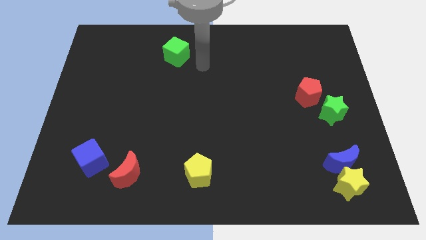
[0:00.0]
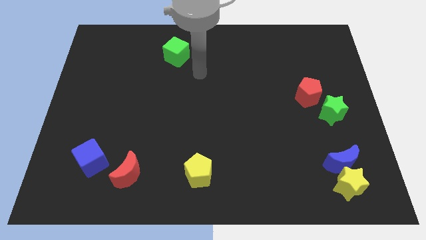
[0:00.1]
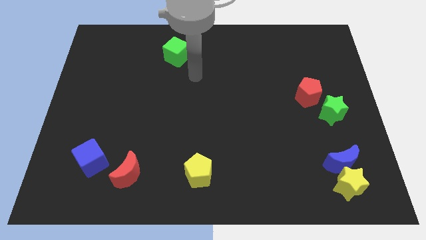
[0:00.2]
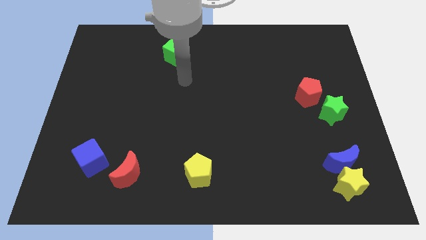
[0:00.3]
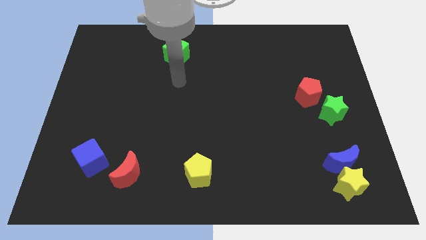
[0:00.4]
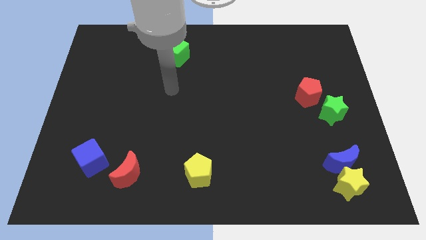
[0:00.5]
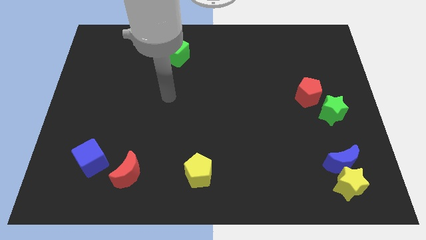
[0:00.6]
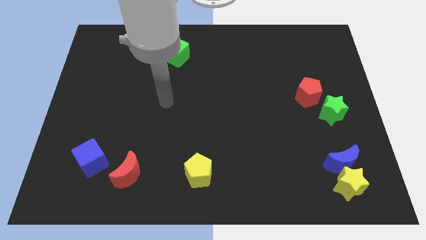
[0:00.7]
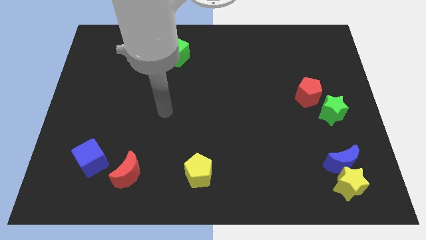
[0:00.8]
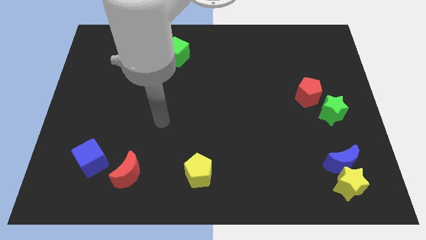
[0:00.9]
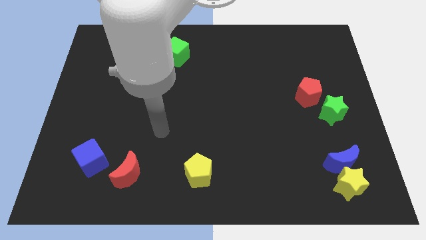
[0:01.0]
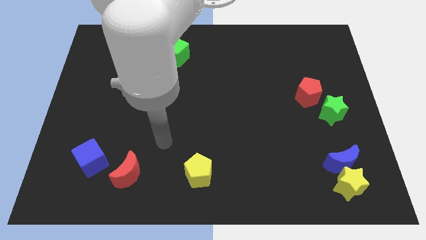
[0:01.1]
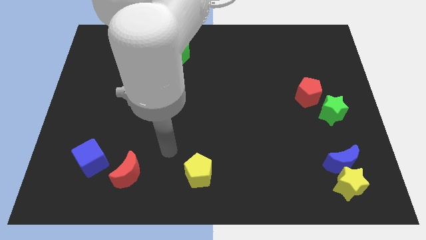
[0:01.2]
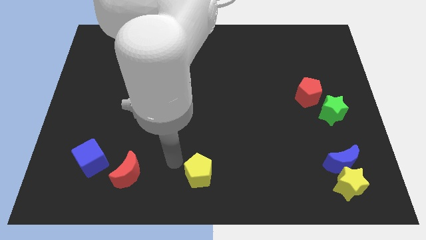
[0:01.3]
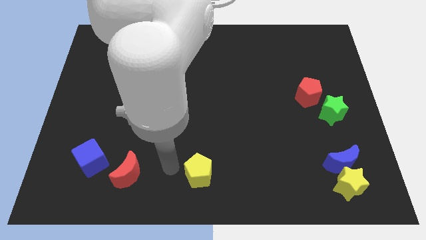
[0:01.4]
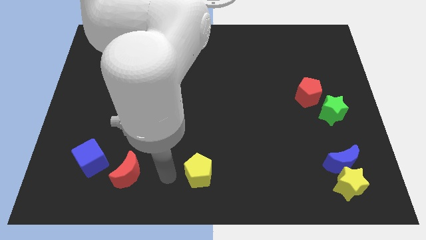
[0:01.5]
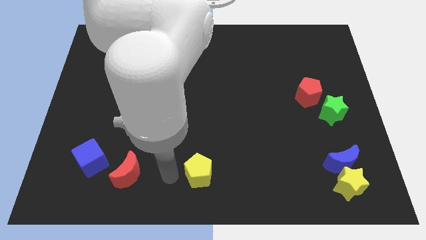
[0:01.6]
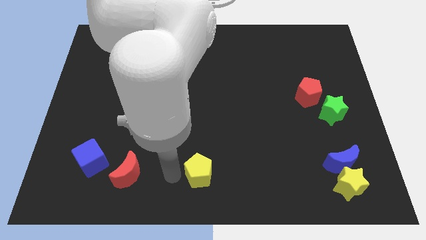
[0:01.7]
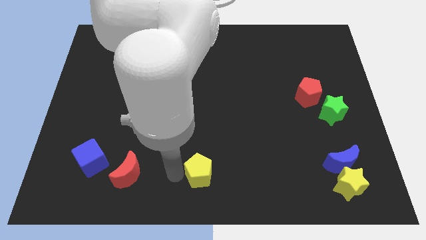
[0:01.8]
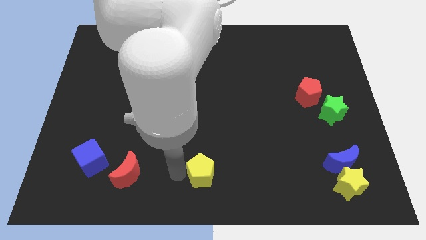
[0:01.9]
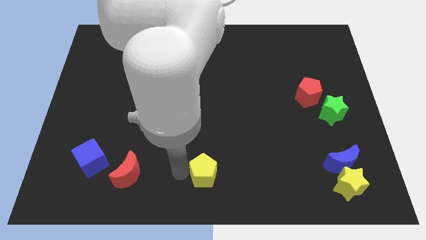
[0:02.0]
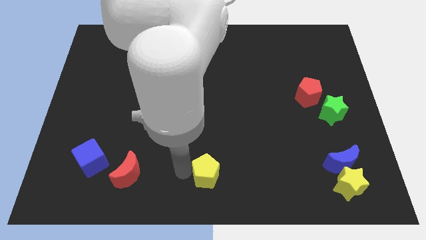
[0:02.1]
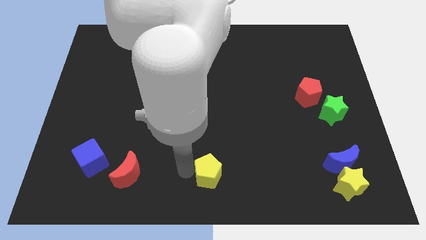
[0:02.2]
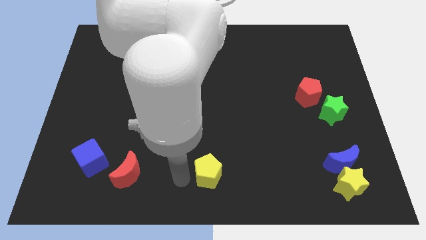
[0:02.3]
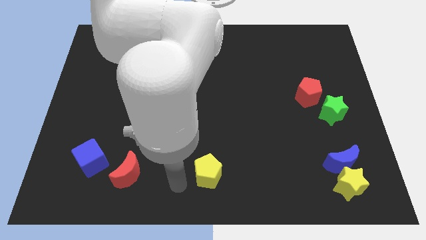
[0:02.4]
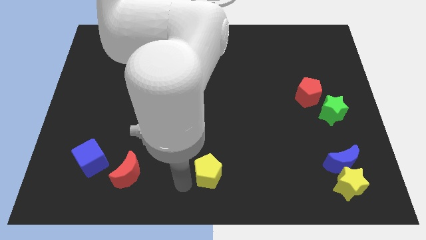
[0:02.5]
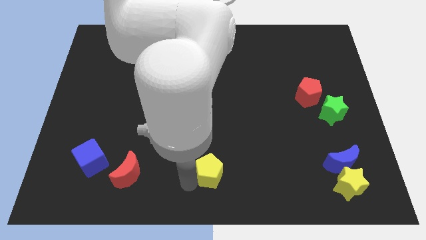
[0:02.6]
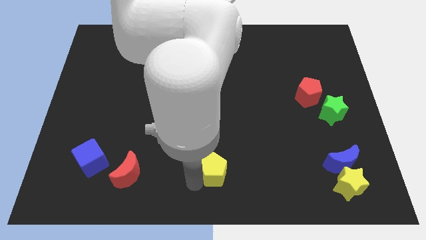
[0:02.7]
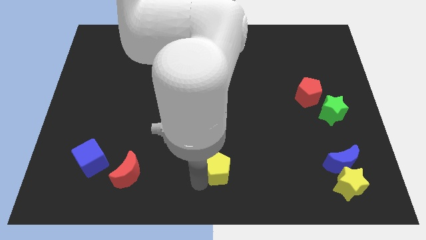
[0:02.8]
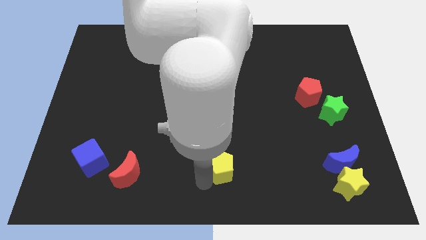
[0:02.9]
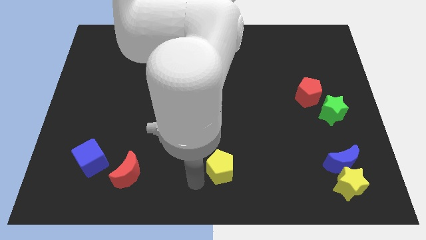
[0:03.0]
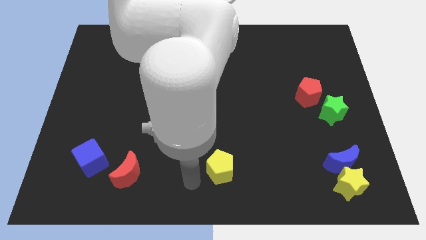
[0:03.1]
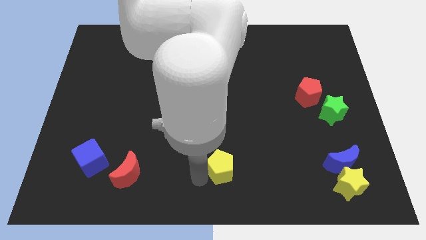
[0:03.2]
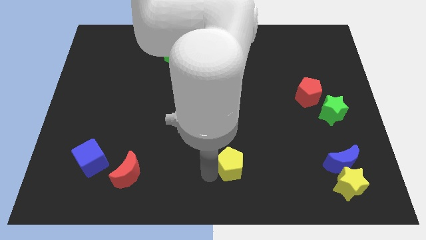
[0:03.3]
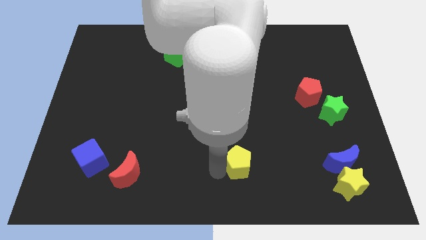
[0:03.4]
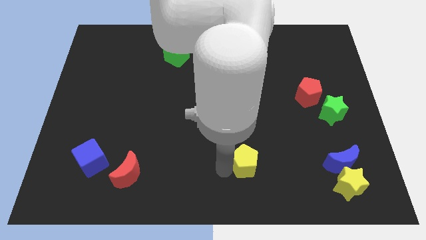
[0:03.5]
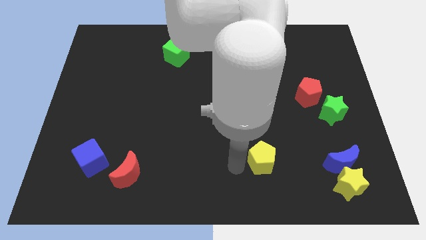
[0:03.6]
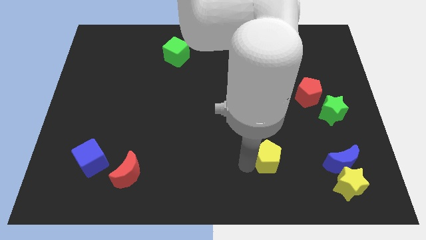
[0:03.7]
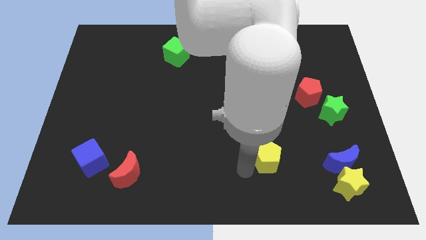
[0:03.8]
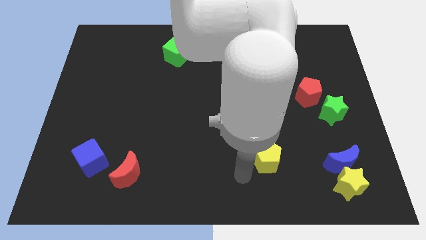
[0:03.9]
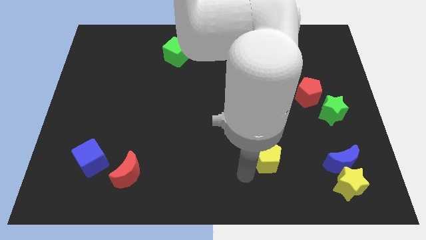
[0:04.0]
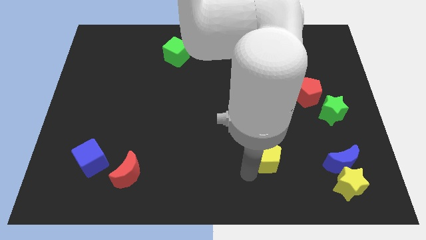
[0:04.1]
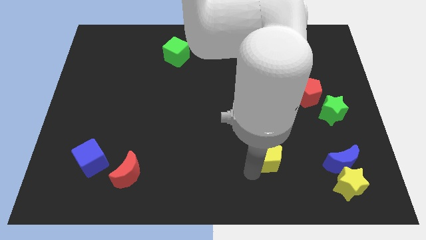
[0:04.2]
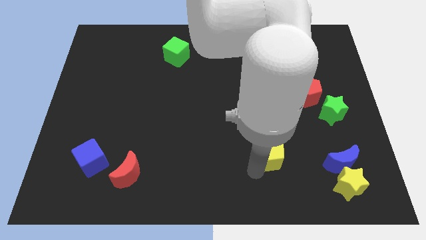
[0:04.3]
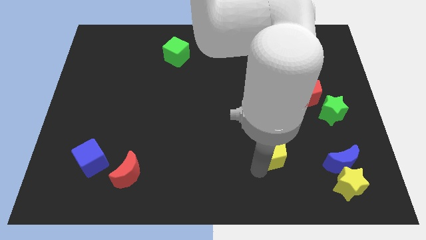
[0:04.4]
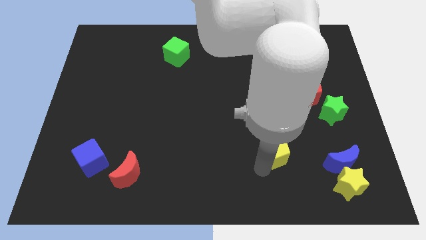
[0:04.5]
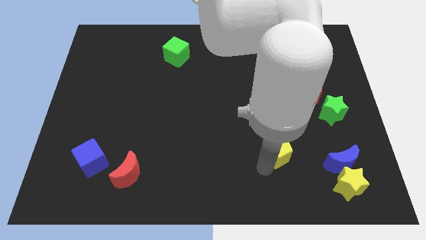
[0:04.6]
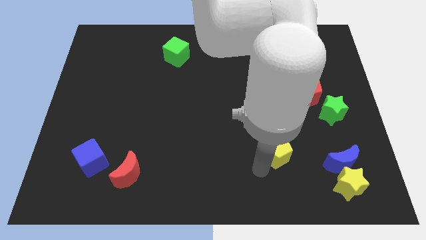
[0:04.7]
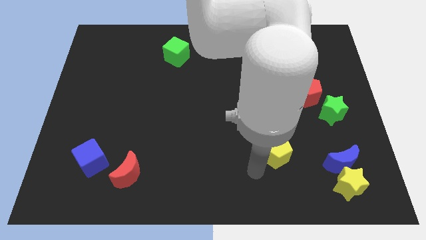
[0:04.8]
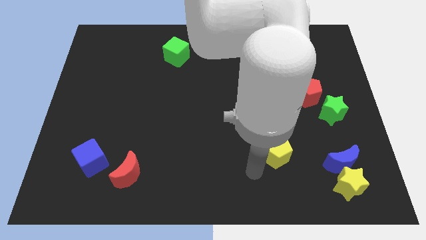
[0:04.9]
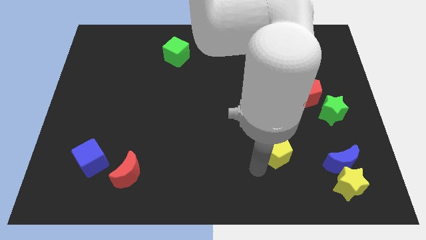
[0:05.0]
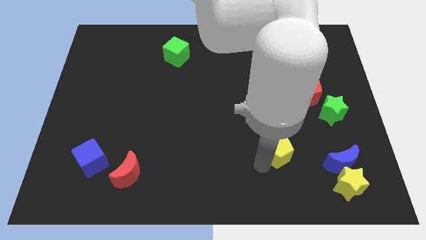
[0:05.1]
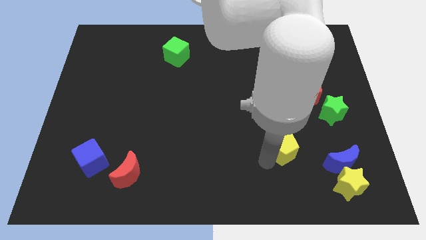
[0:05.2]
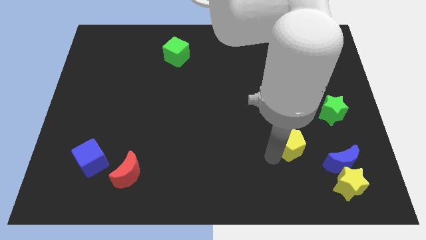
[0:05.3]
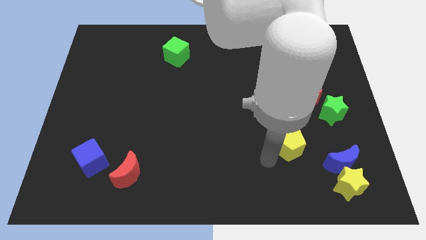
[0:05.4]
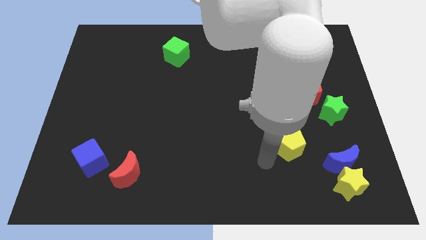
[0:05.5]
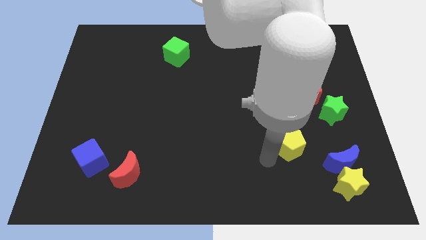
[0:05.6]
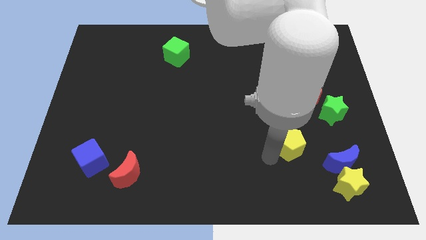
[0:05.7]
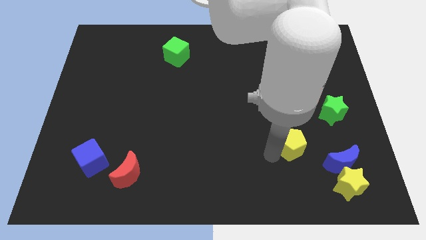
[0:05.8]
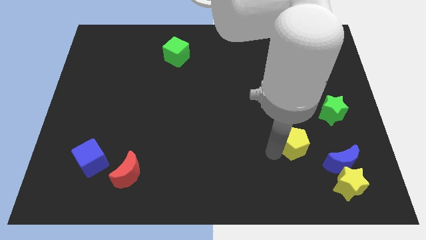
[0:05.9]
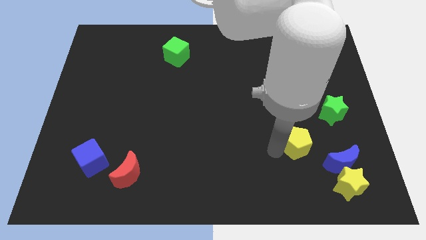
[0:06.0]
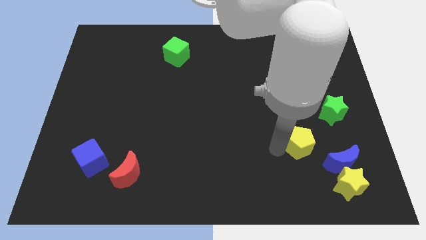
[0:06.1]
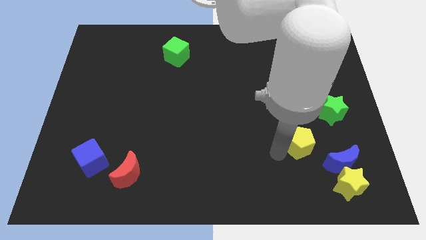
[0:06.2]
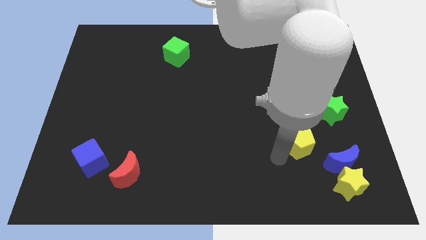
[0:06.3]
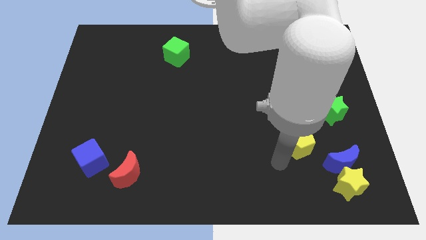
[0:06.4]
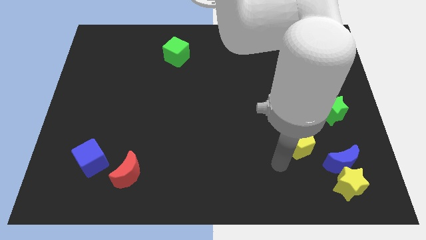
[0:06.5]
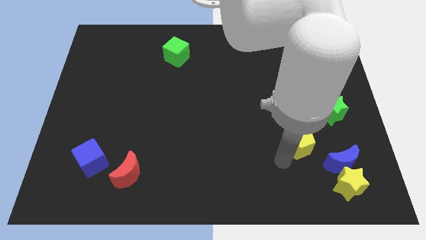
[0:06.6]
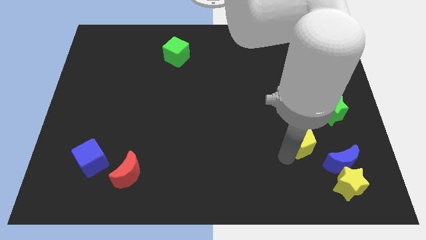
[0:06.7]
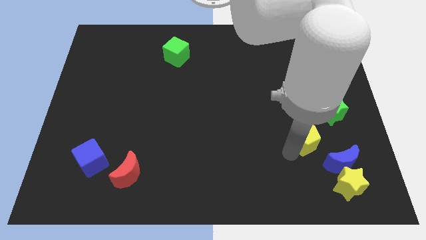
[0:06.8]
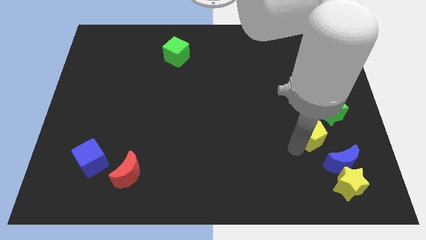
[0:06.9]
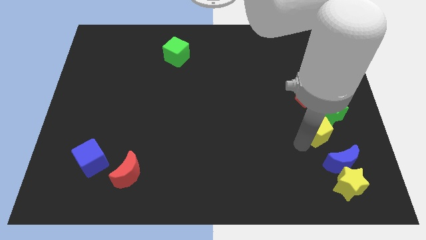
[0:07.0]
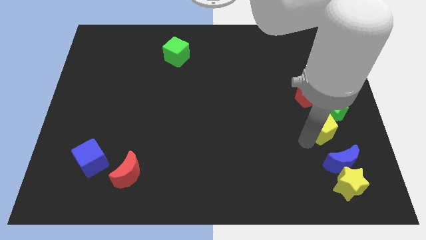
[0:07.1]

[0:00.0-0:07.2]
put the yellow pentagon close to the green star
